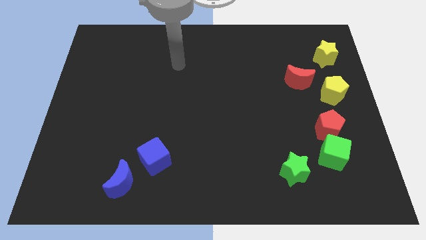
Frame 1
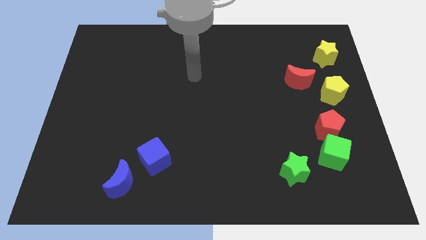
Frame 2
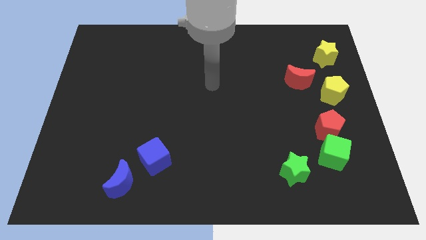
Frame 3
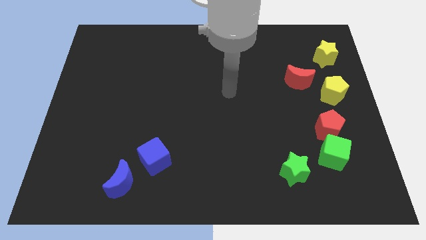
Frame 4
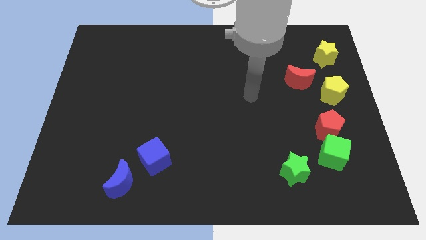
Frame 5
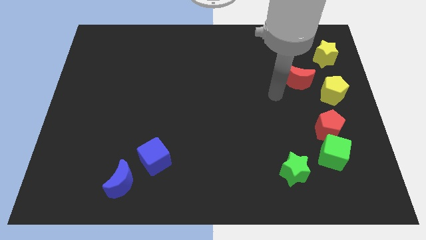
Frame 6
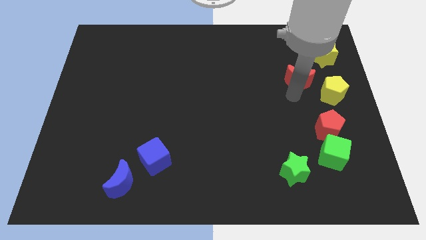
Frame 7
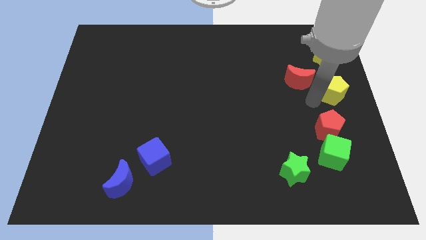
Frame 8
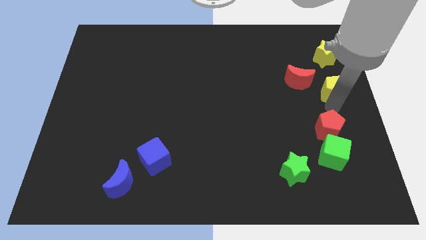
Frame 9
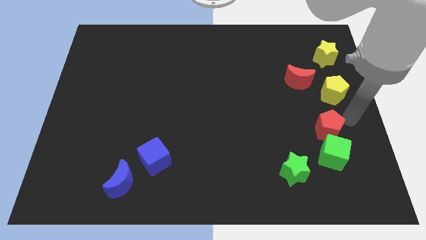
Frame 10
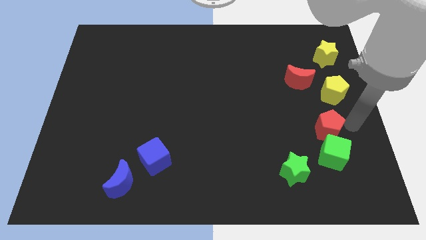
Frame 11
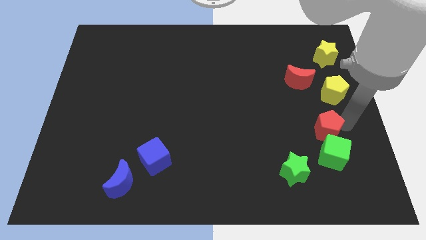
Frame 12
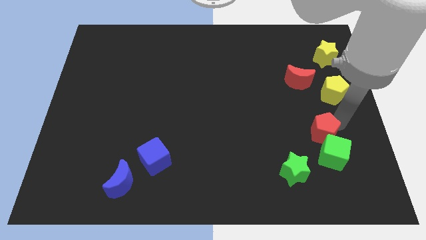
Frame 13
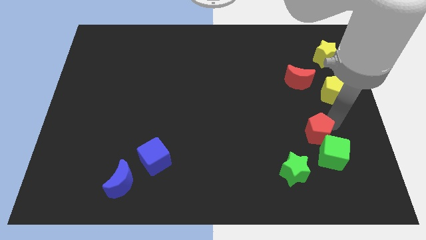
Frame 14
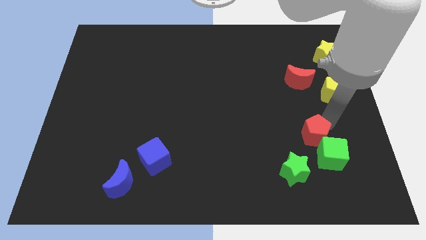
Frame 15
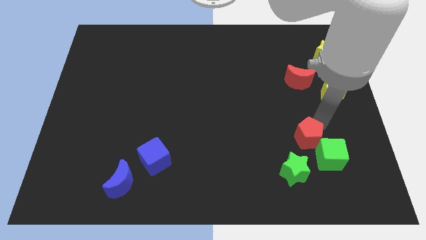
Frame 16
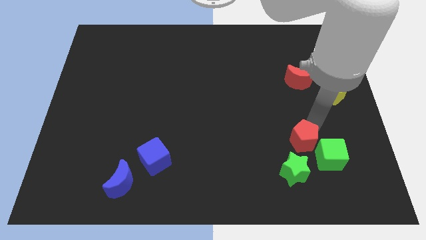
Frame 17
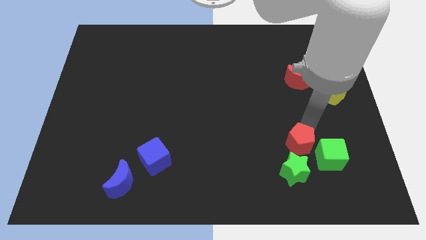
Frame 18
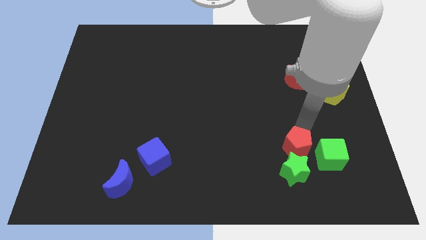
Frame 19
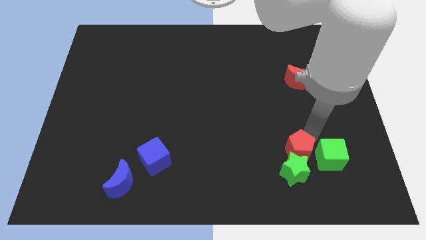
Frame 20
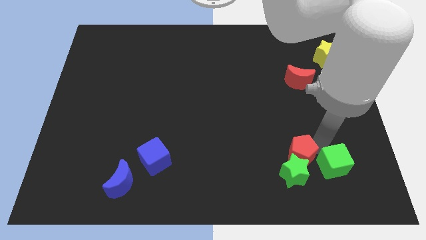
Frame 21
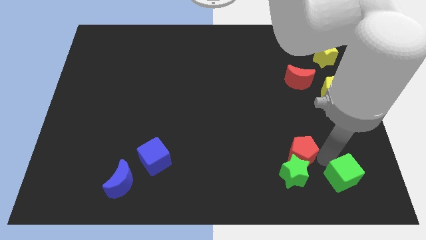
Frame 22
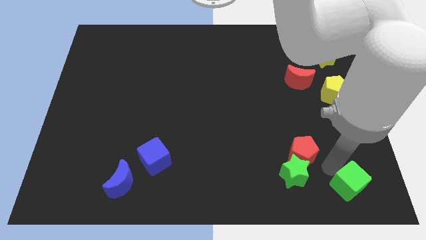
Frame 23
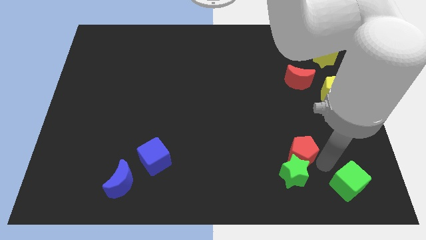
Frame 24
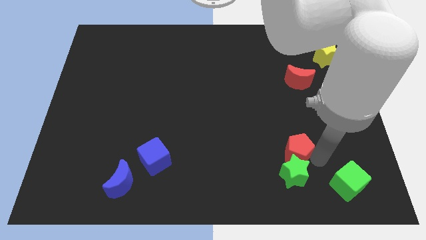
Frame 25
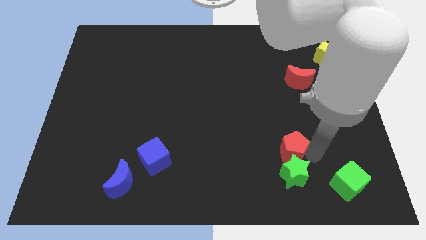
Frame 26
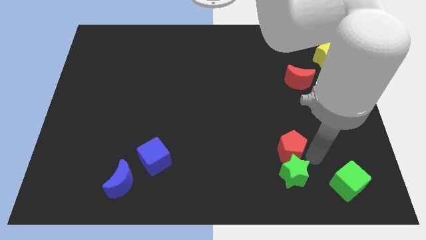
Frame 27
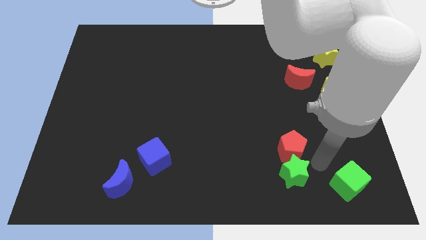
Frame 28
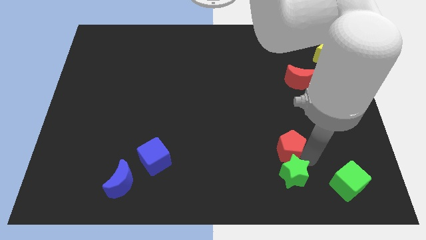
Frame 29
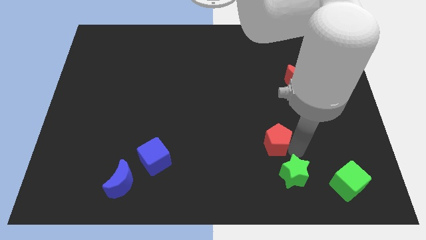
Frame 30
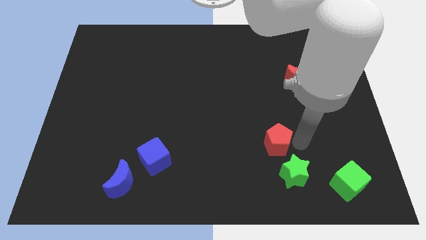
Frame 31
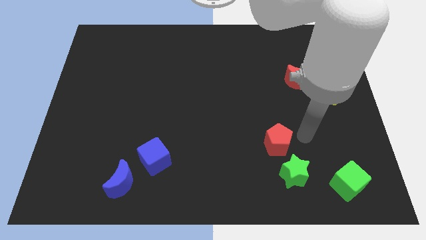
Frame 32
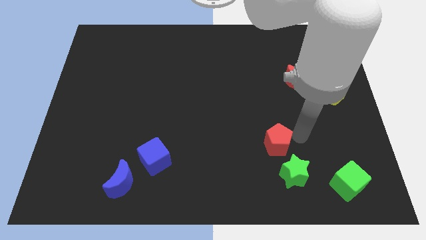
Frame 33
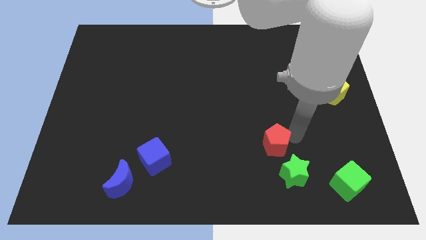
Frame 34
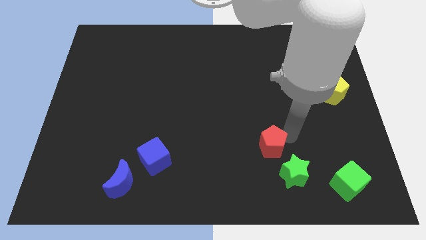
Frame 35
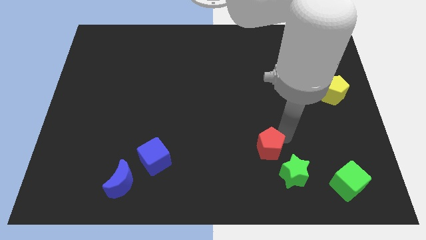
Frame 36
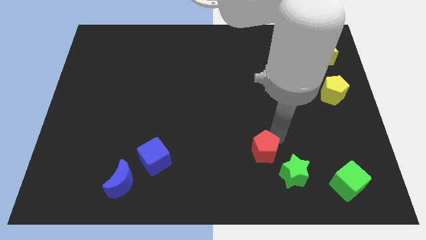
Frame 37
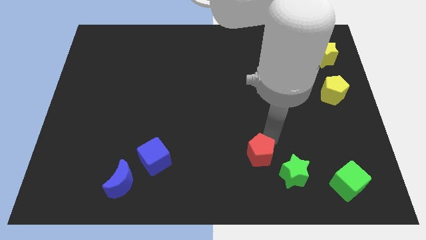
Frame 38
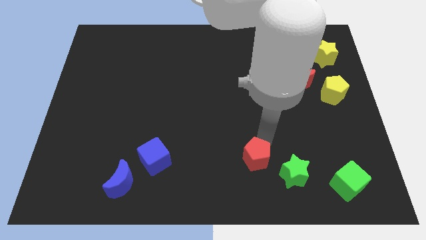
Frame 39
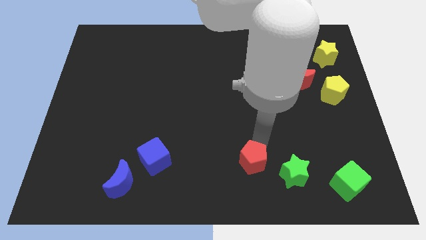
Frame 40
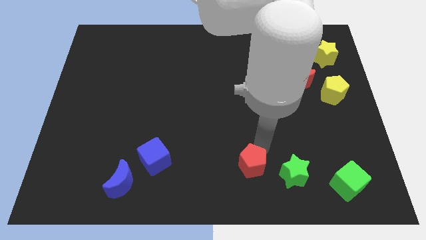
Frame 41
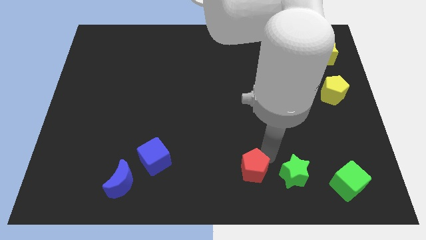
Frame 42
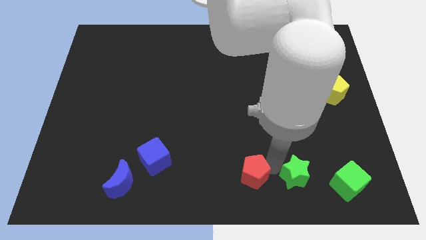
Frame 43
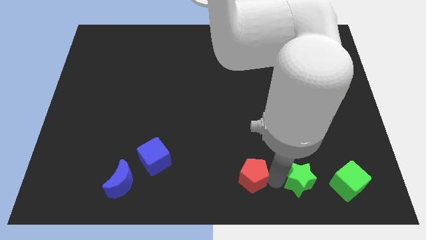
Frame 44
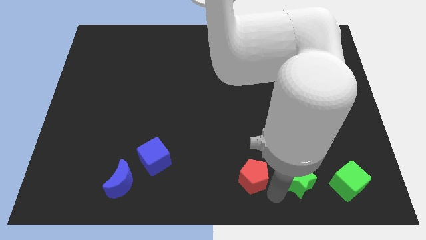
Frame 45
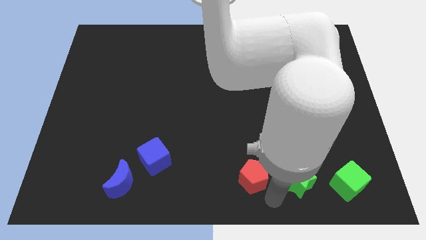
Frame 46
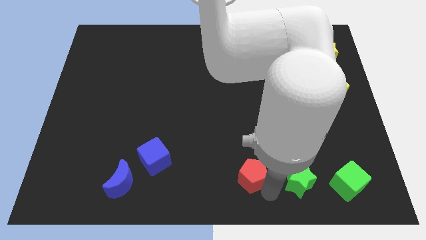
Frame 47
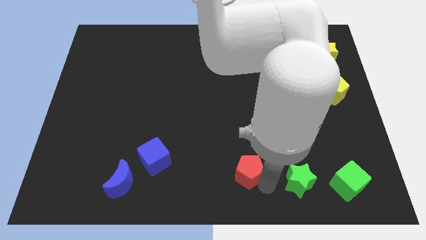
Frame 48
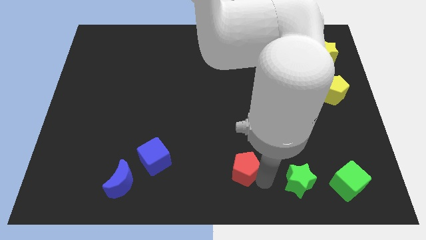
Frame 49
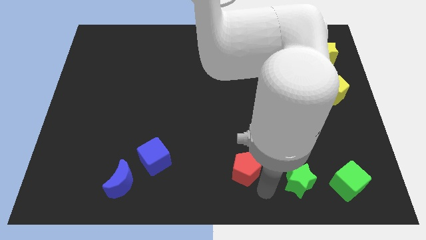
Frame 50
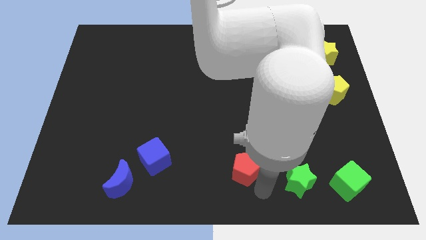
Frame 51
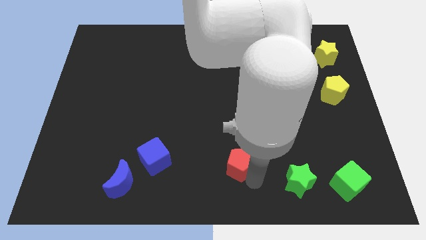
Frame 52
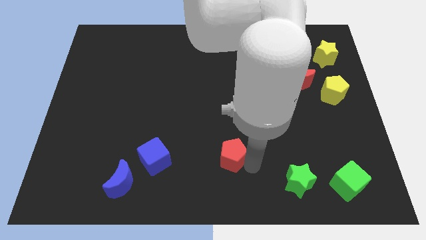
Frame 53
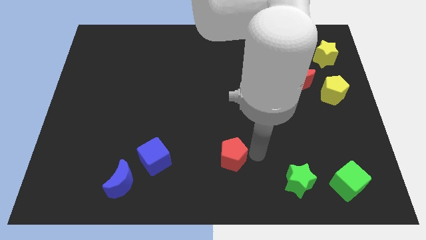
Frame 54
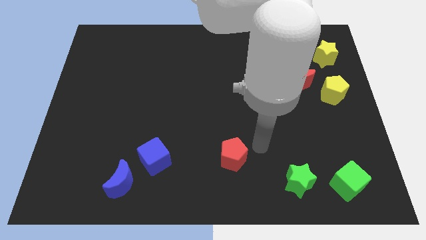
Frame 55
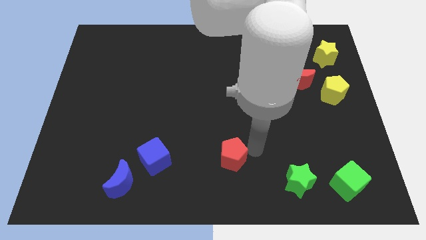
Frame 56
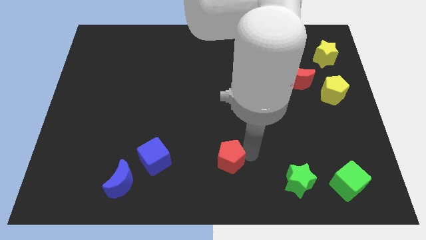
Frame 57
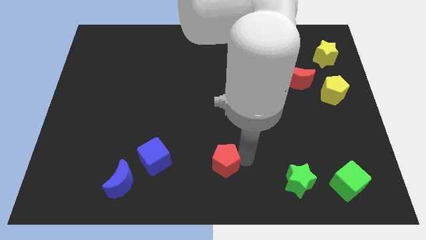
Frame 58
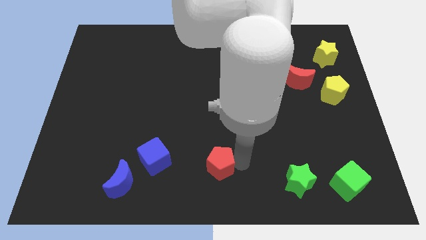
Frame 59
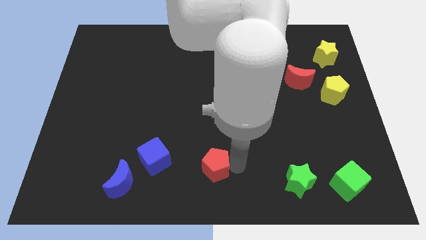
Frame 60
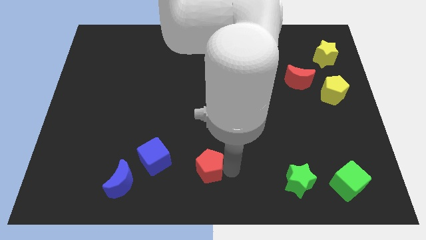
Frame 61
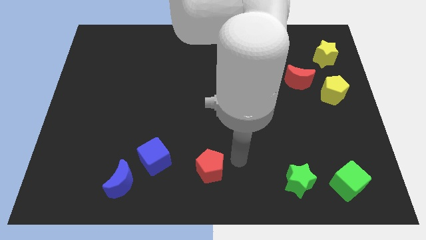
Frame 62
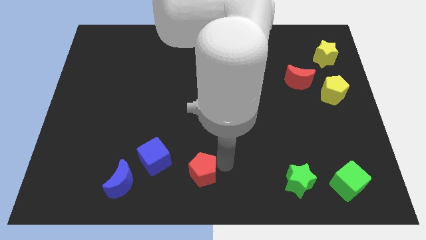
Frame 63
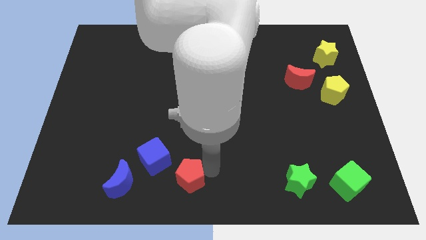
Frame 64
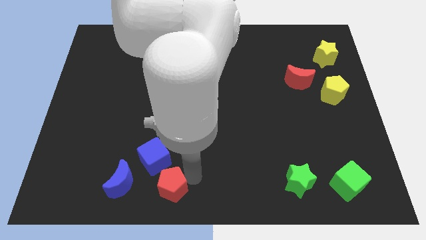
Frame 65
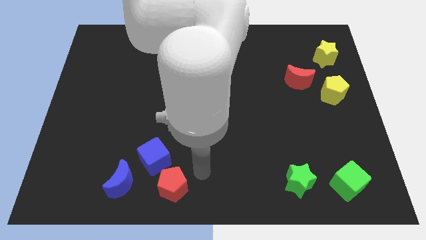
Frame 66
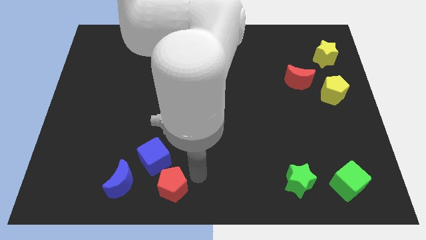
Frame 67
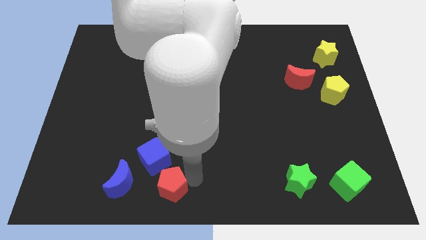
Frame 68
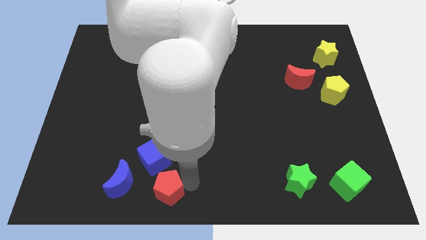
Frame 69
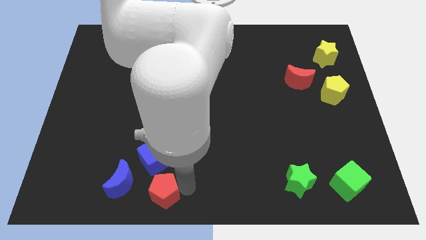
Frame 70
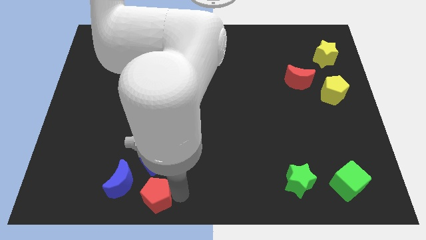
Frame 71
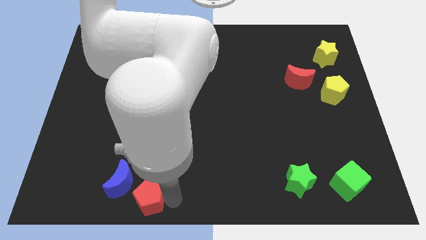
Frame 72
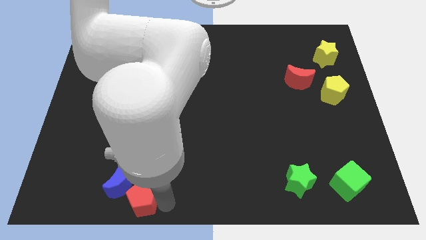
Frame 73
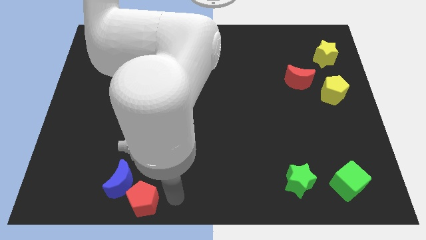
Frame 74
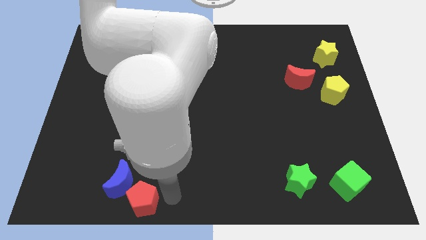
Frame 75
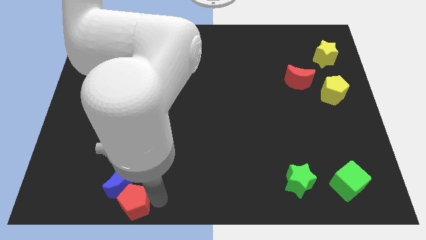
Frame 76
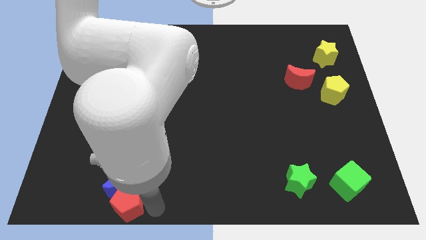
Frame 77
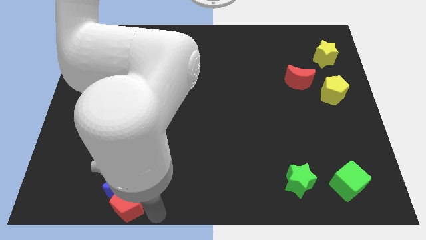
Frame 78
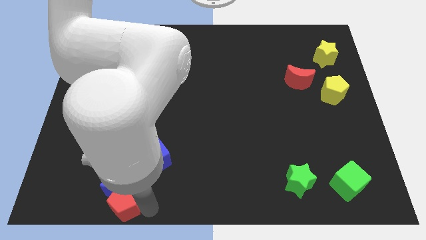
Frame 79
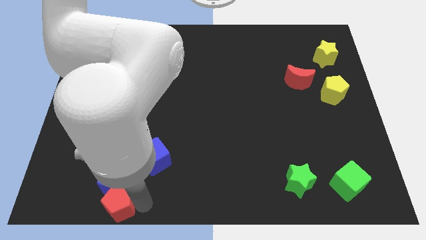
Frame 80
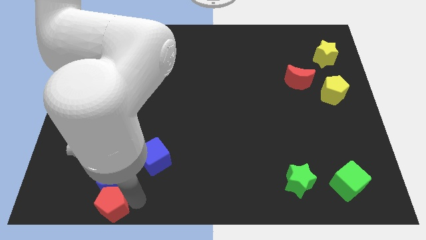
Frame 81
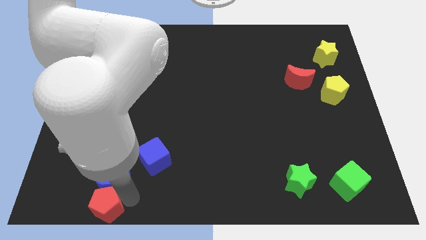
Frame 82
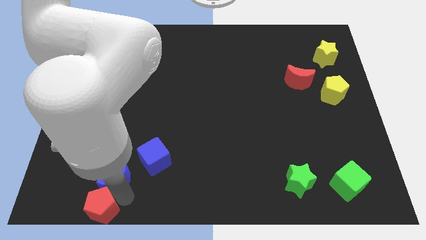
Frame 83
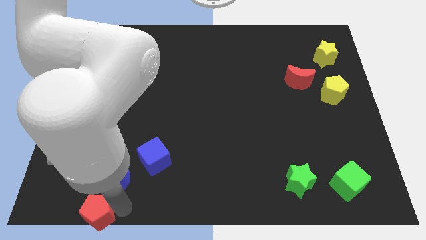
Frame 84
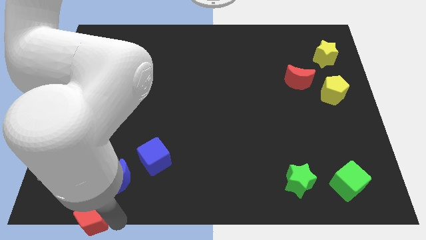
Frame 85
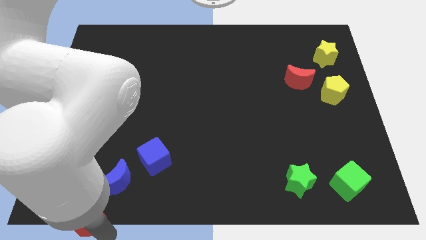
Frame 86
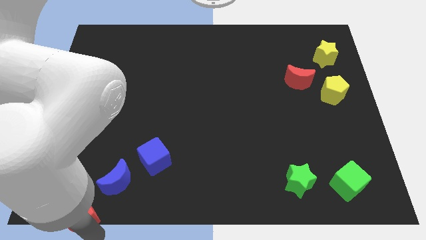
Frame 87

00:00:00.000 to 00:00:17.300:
push the red pentagon to the bottom left of the board
